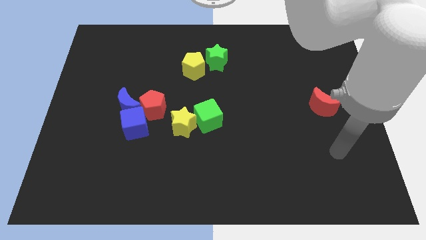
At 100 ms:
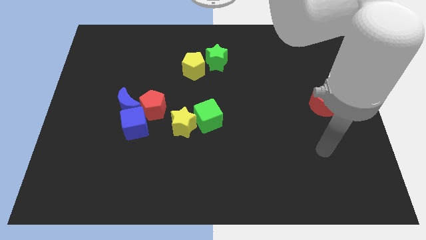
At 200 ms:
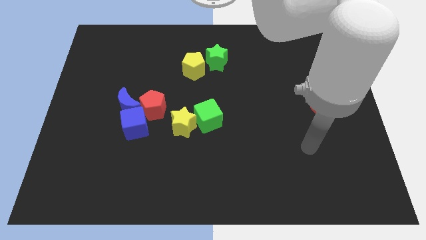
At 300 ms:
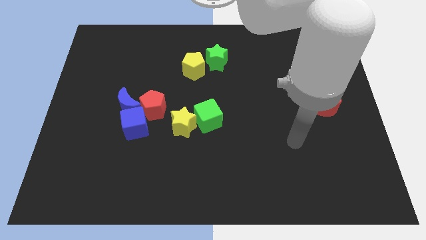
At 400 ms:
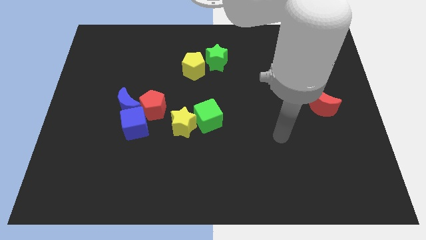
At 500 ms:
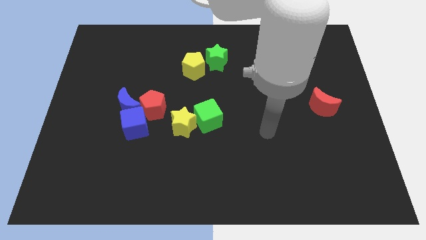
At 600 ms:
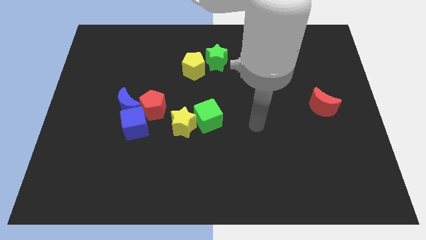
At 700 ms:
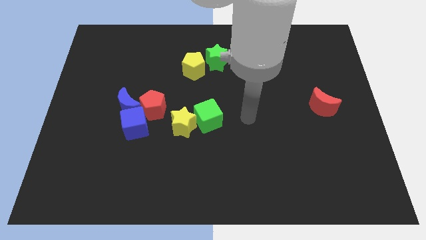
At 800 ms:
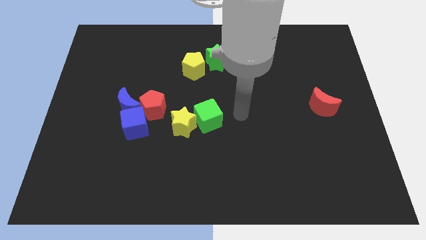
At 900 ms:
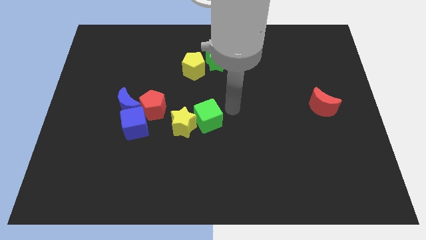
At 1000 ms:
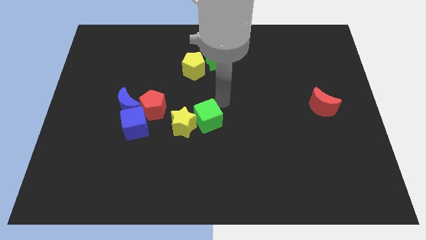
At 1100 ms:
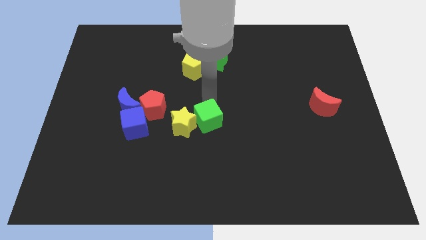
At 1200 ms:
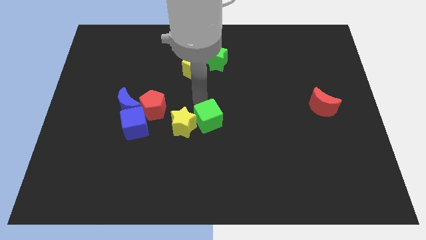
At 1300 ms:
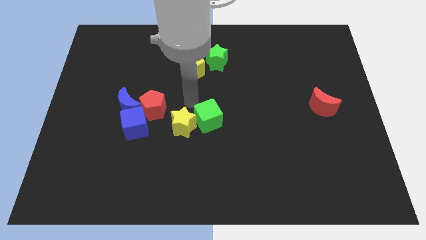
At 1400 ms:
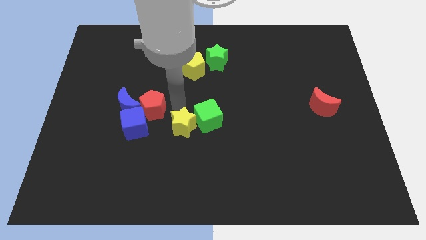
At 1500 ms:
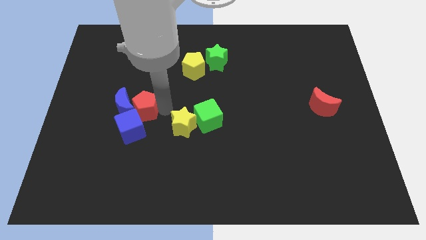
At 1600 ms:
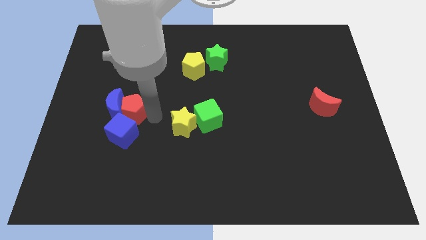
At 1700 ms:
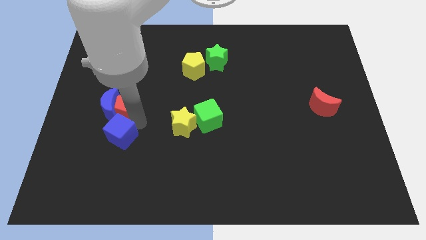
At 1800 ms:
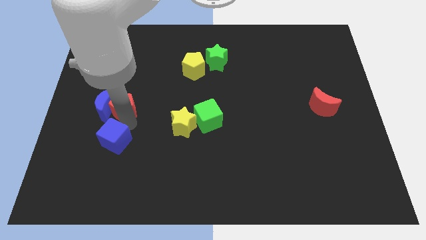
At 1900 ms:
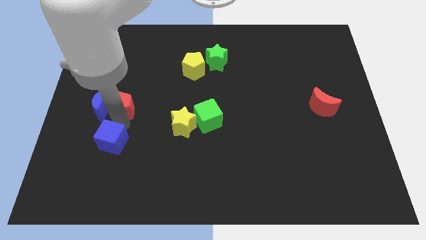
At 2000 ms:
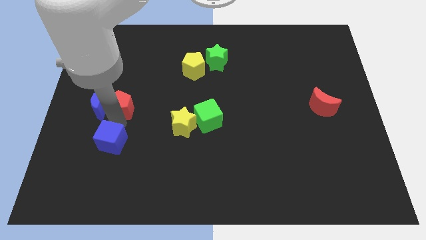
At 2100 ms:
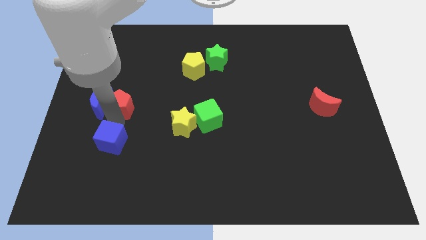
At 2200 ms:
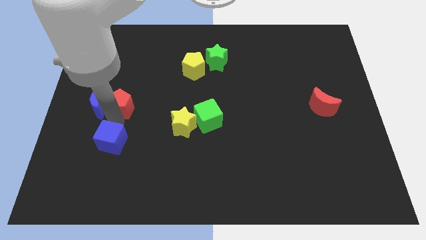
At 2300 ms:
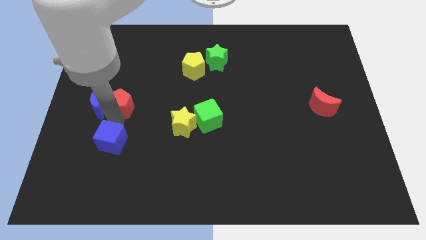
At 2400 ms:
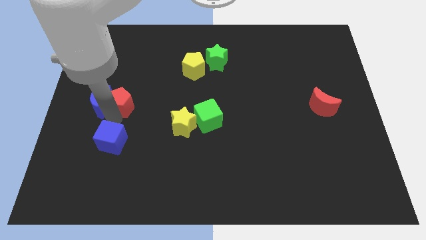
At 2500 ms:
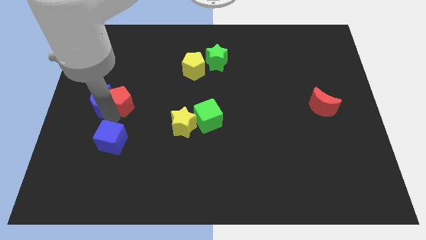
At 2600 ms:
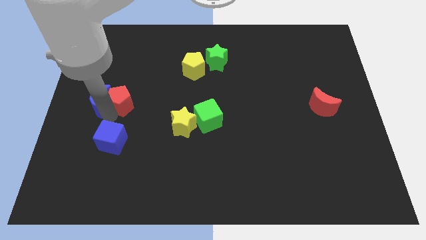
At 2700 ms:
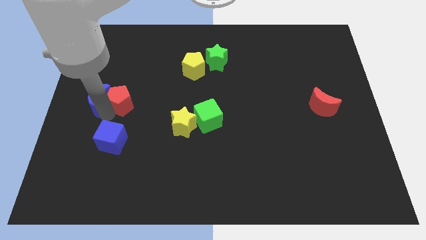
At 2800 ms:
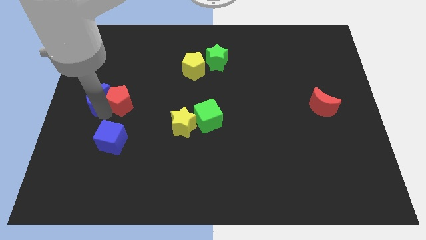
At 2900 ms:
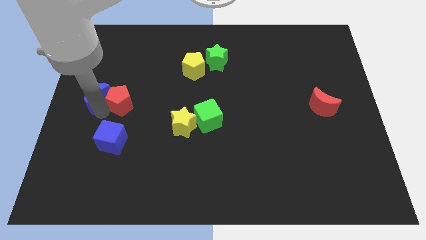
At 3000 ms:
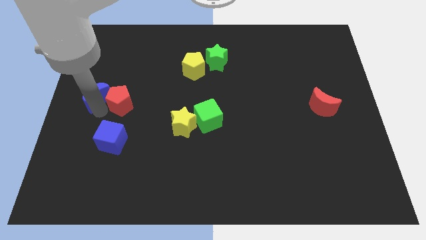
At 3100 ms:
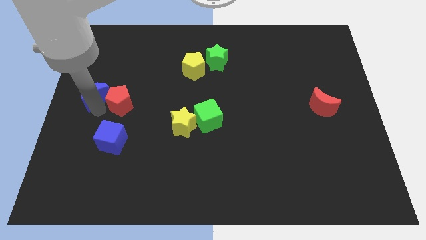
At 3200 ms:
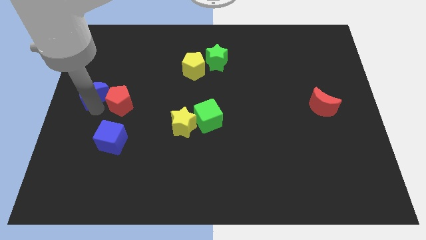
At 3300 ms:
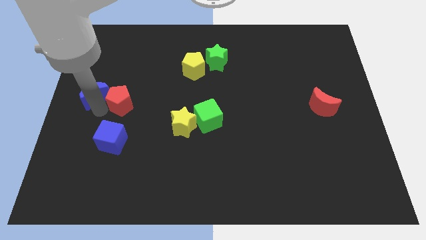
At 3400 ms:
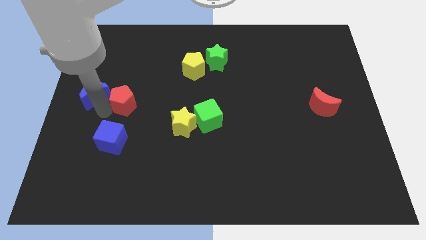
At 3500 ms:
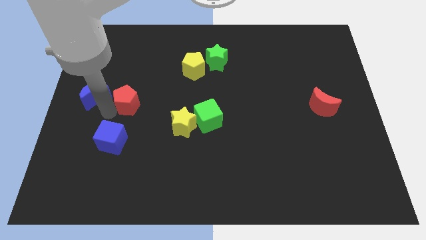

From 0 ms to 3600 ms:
pull the blue moon apart from the blue cube and red pentagon

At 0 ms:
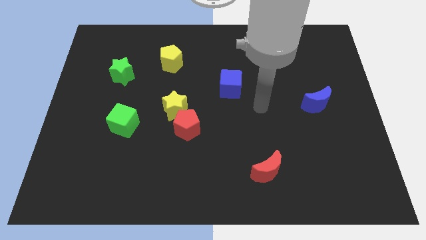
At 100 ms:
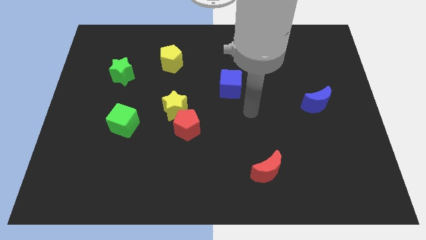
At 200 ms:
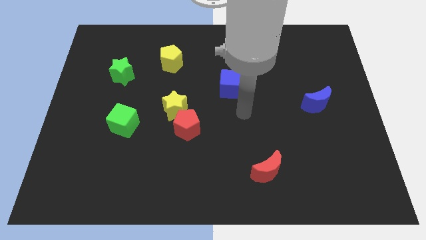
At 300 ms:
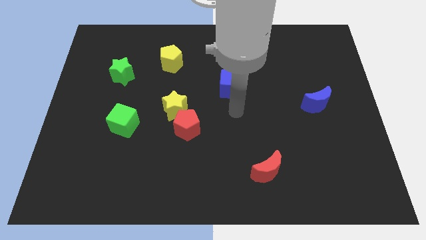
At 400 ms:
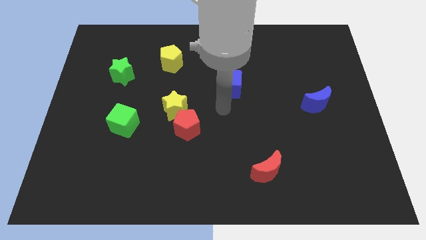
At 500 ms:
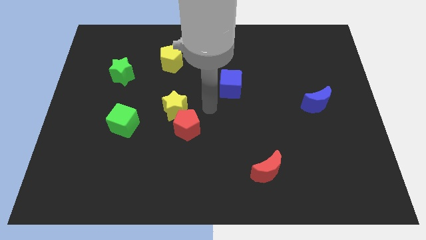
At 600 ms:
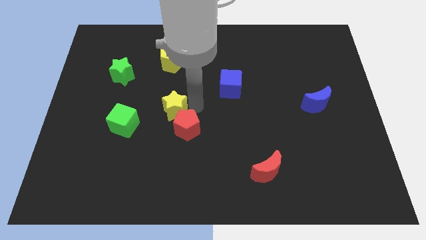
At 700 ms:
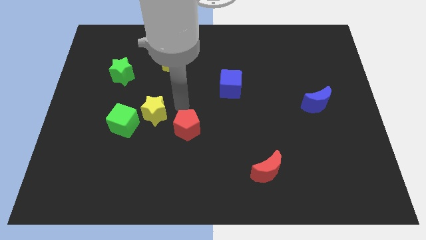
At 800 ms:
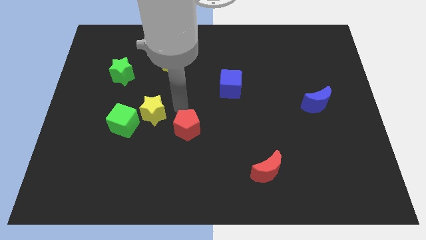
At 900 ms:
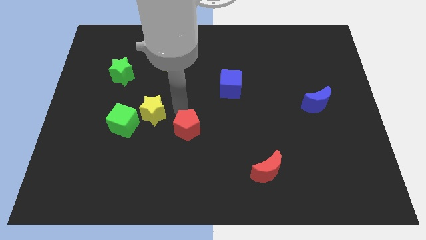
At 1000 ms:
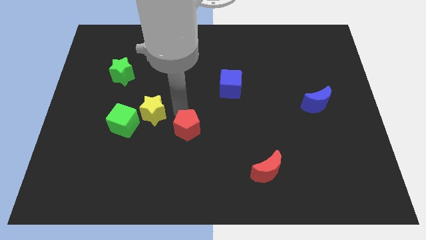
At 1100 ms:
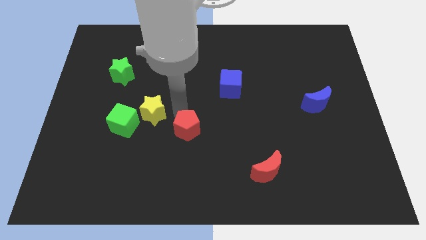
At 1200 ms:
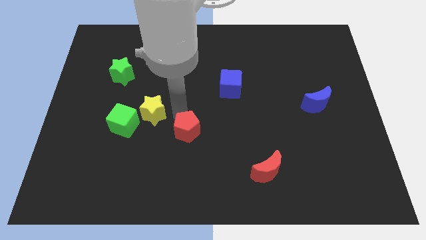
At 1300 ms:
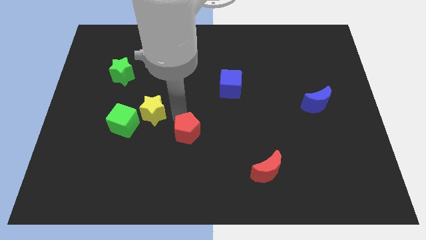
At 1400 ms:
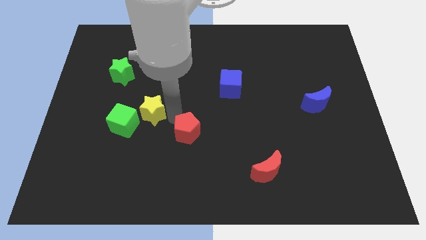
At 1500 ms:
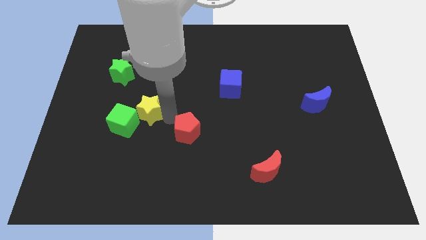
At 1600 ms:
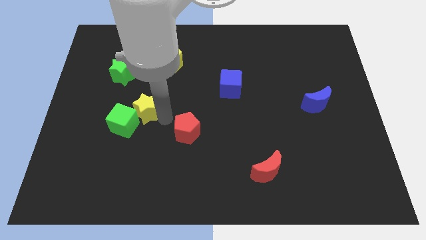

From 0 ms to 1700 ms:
move the red pentagon away from the yellow star

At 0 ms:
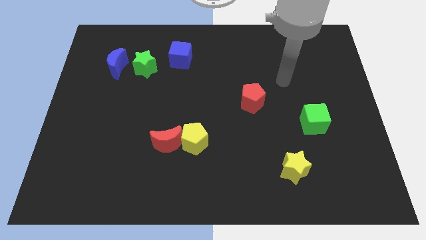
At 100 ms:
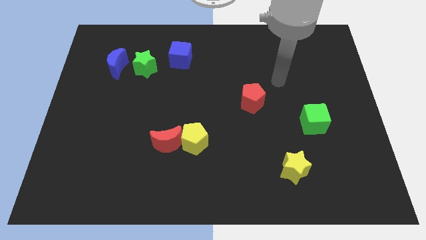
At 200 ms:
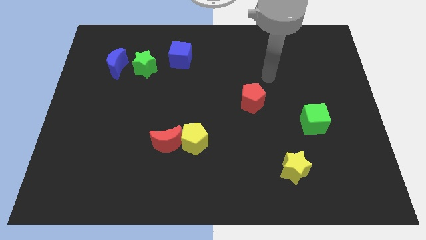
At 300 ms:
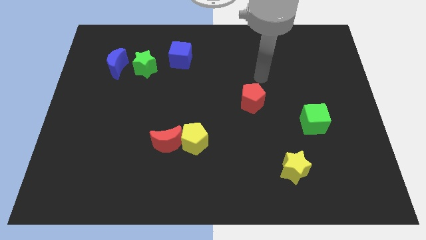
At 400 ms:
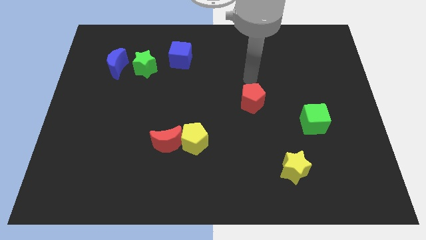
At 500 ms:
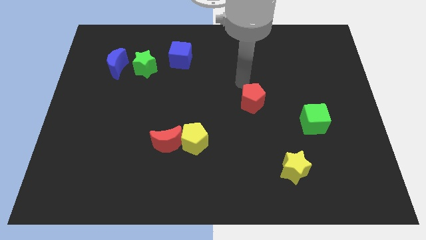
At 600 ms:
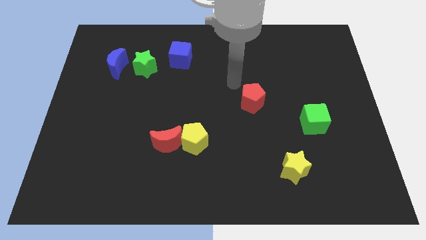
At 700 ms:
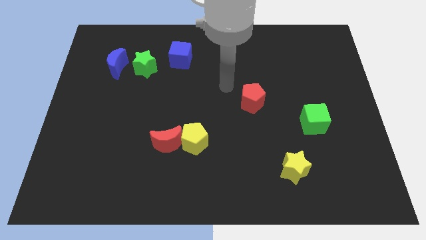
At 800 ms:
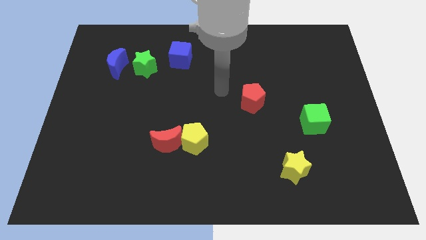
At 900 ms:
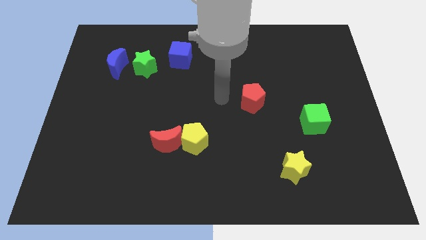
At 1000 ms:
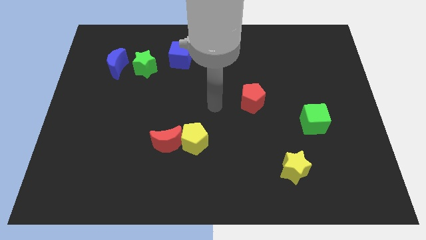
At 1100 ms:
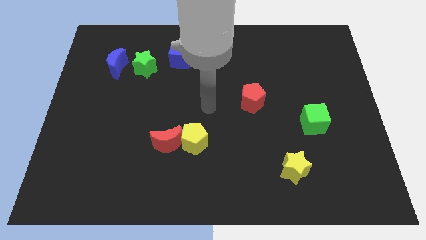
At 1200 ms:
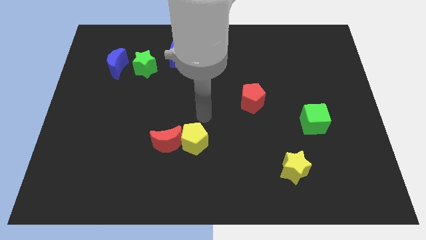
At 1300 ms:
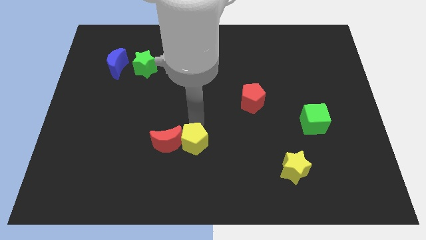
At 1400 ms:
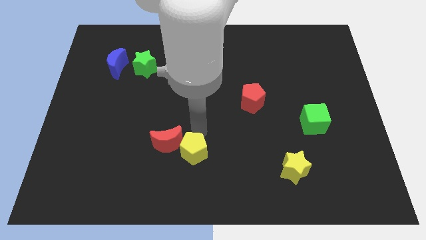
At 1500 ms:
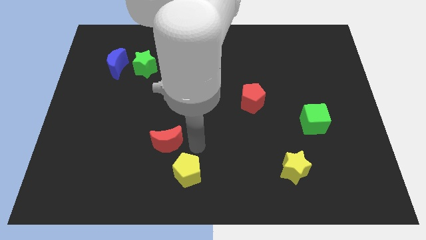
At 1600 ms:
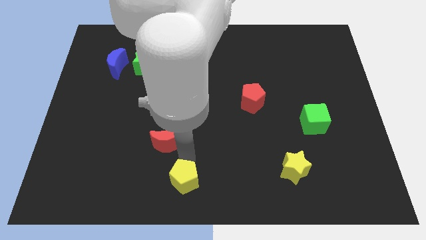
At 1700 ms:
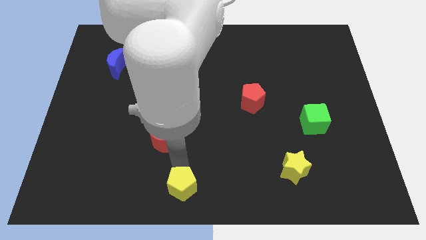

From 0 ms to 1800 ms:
pull the red moon apart from the yellow pentagon

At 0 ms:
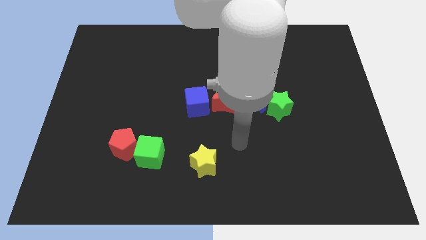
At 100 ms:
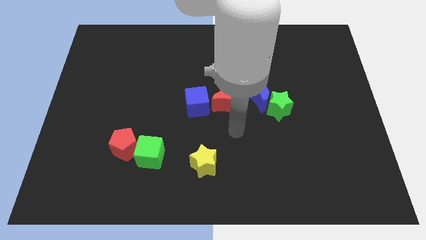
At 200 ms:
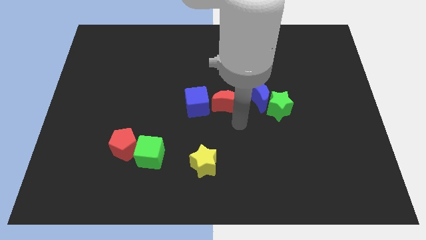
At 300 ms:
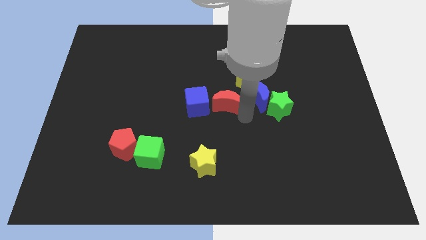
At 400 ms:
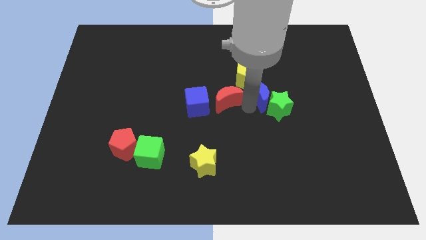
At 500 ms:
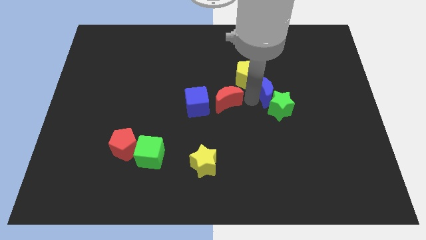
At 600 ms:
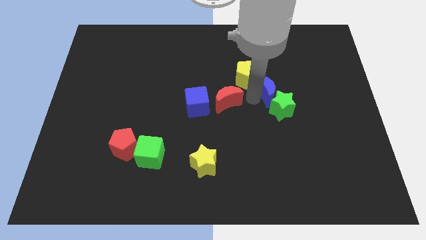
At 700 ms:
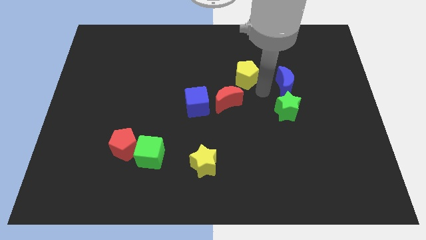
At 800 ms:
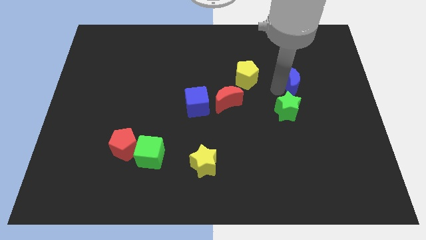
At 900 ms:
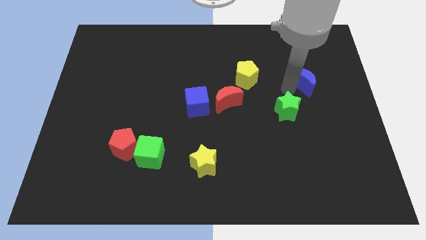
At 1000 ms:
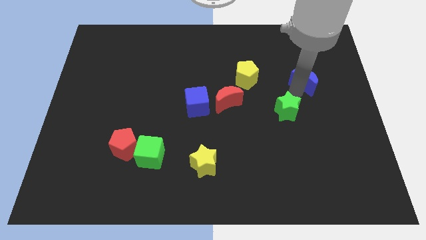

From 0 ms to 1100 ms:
move the green star away from the blue moon

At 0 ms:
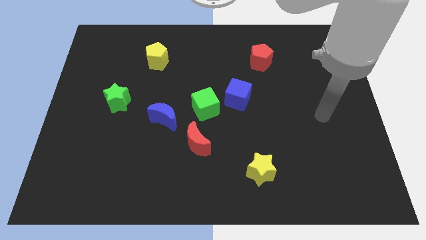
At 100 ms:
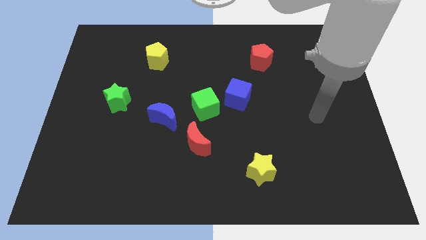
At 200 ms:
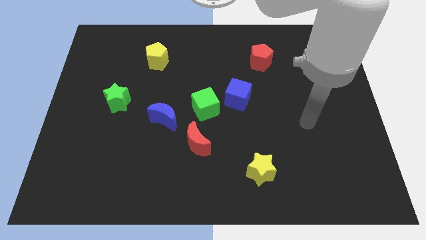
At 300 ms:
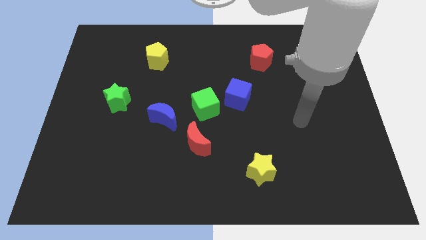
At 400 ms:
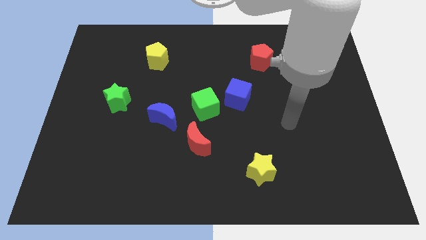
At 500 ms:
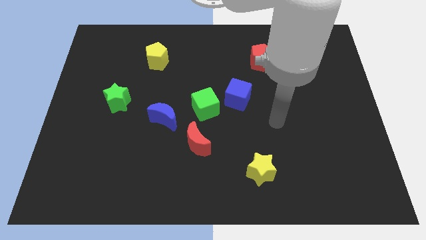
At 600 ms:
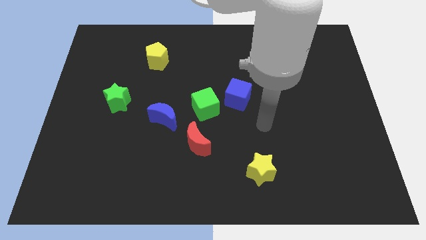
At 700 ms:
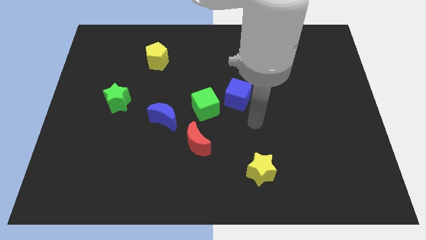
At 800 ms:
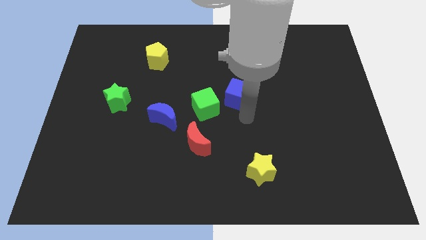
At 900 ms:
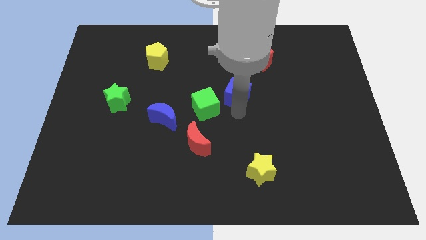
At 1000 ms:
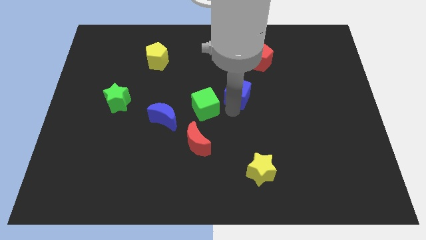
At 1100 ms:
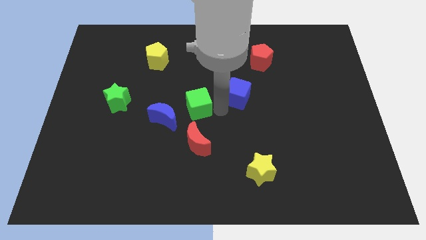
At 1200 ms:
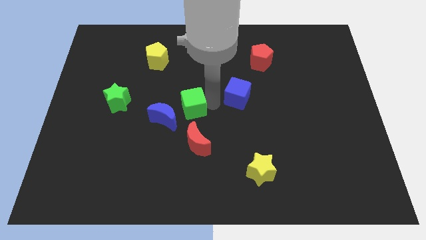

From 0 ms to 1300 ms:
move the blue cube away from the green cube
